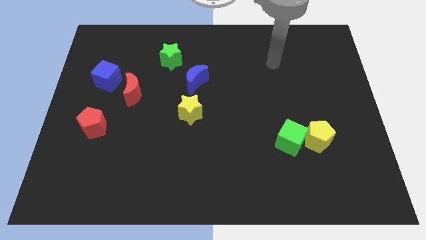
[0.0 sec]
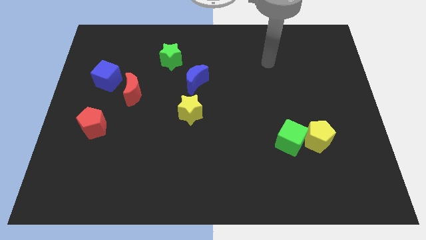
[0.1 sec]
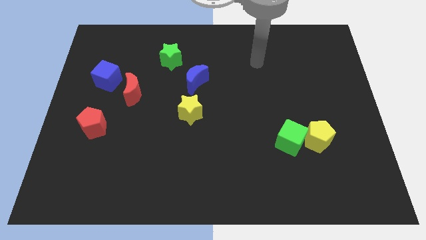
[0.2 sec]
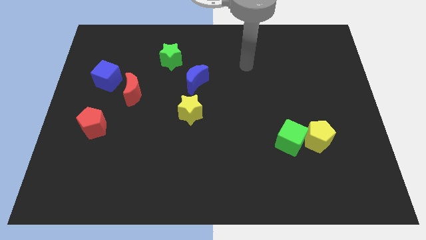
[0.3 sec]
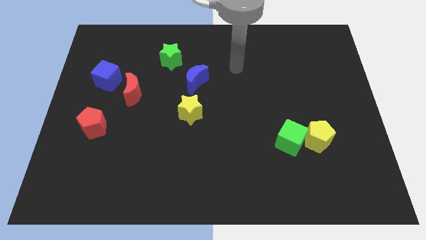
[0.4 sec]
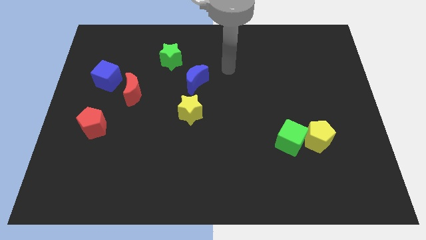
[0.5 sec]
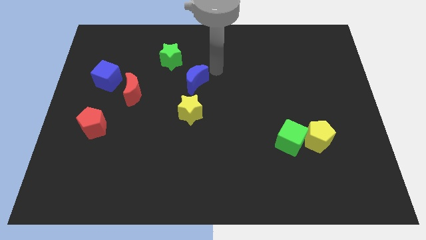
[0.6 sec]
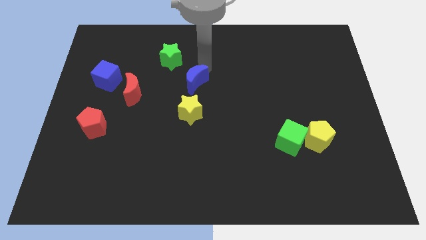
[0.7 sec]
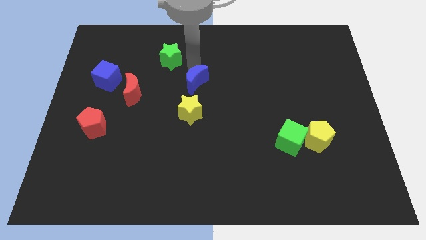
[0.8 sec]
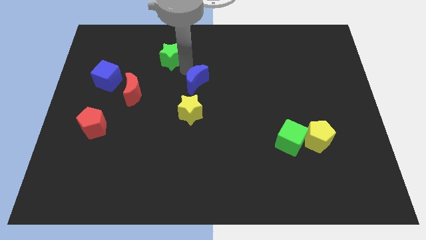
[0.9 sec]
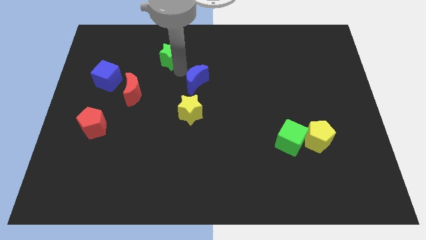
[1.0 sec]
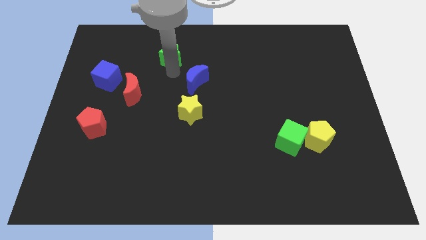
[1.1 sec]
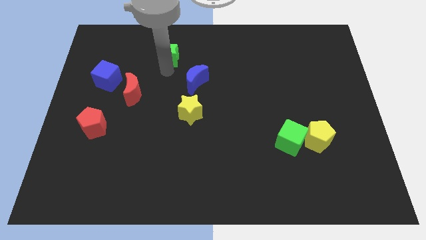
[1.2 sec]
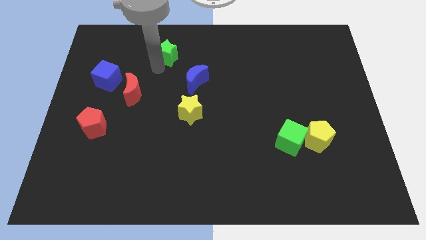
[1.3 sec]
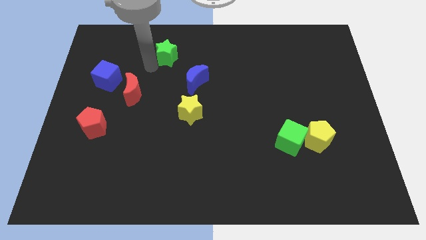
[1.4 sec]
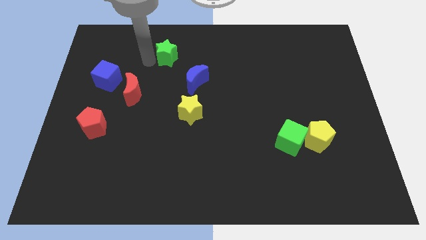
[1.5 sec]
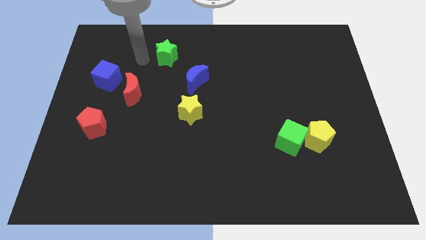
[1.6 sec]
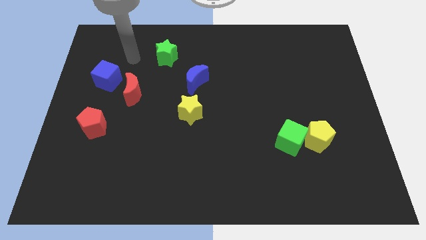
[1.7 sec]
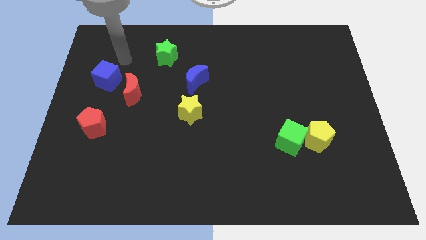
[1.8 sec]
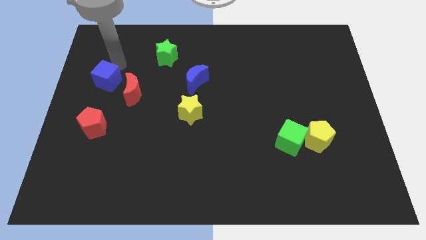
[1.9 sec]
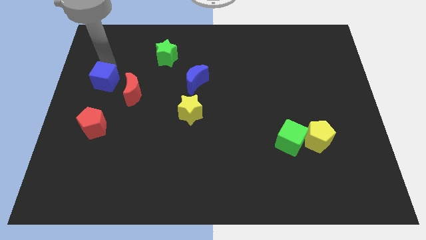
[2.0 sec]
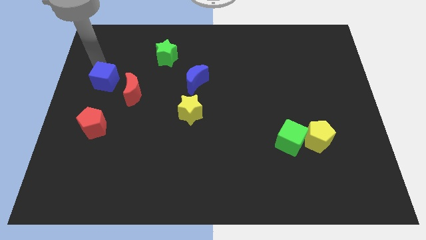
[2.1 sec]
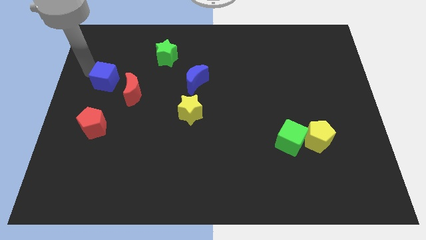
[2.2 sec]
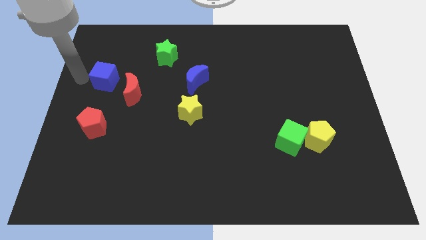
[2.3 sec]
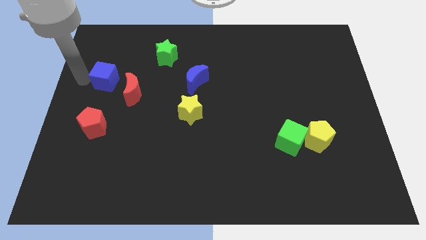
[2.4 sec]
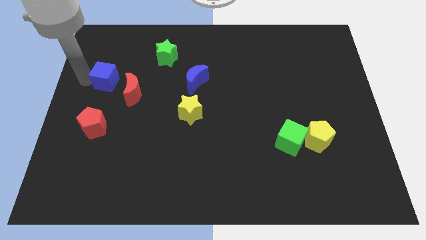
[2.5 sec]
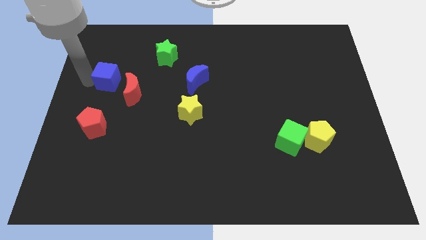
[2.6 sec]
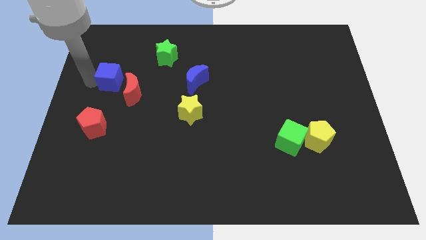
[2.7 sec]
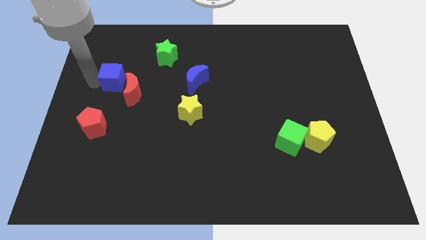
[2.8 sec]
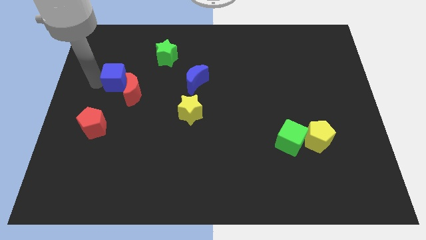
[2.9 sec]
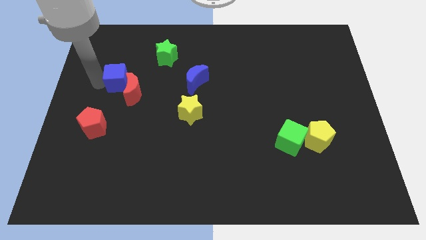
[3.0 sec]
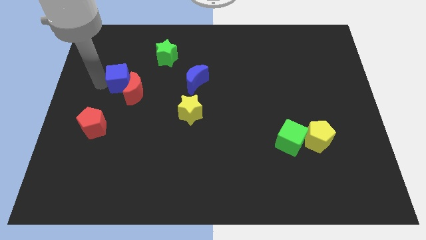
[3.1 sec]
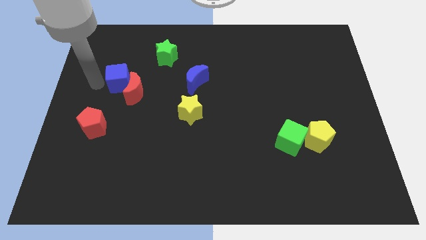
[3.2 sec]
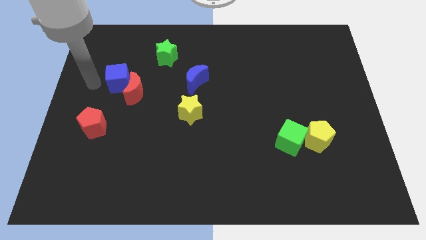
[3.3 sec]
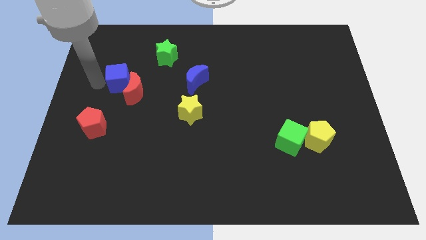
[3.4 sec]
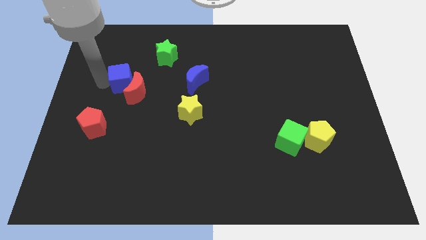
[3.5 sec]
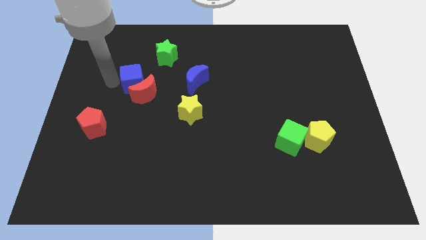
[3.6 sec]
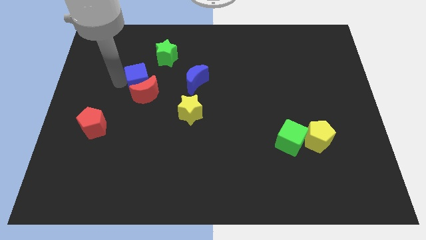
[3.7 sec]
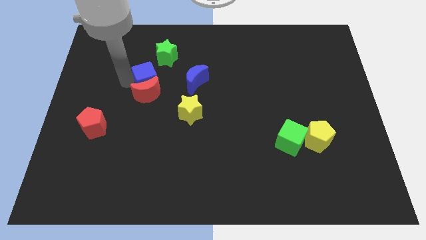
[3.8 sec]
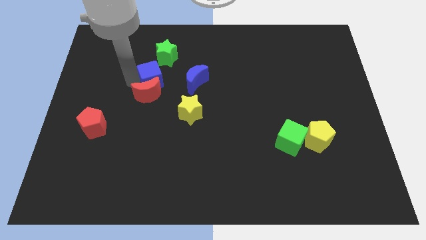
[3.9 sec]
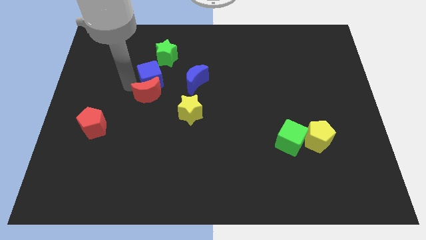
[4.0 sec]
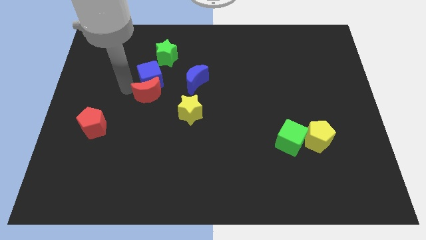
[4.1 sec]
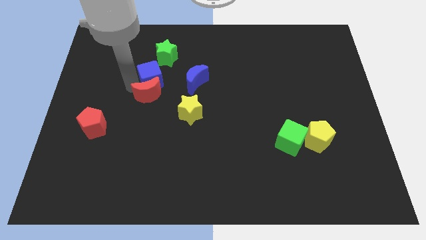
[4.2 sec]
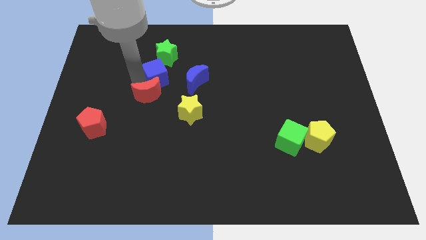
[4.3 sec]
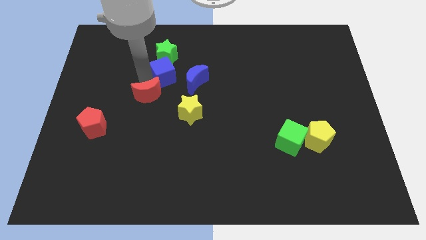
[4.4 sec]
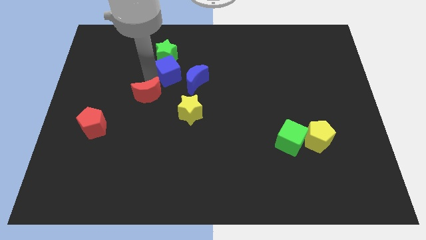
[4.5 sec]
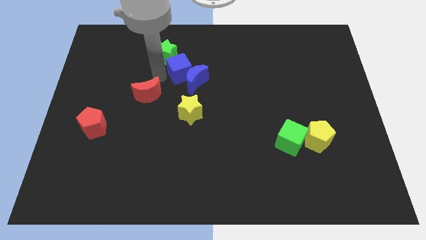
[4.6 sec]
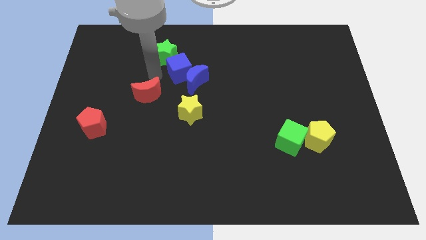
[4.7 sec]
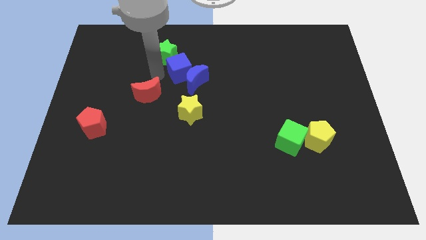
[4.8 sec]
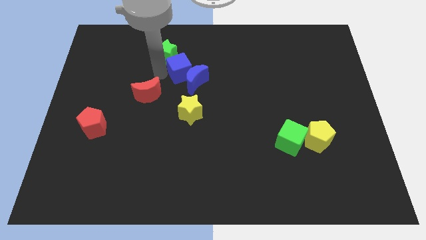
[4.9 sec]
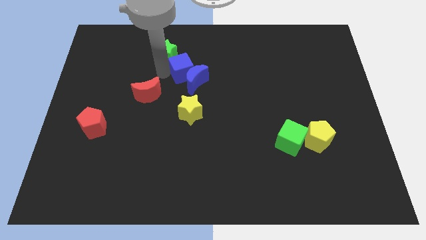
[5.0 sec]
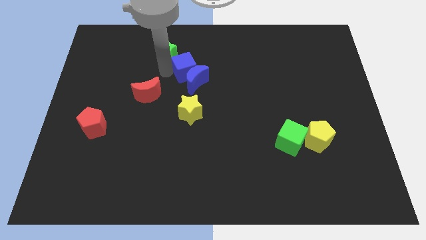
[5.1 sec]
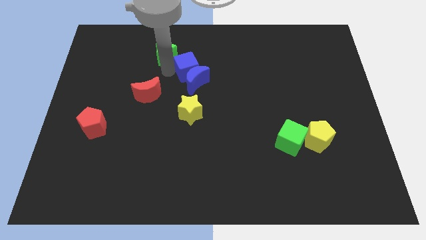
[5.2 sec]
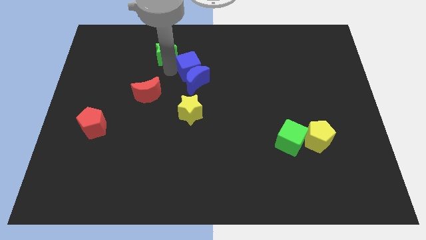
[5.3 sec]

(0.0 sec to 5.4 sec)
move the blue cube diagonally up and to the right of the blue moon

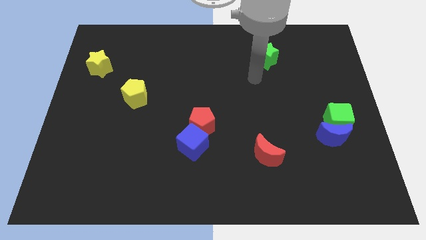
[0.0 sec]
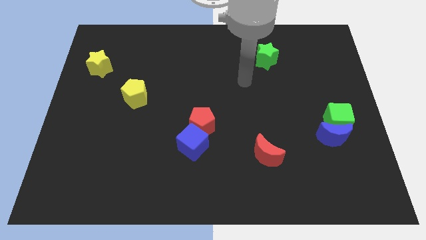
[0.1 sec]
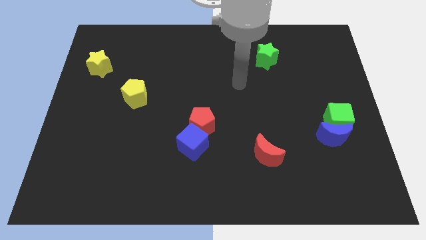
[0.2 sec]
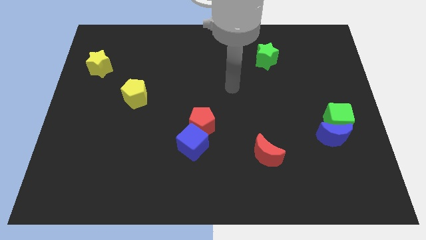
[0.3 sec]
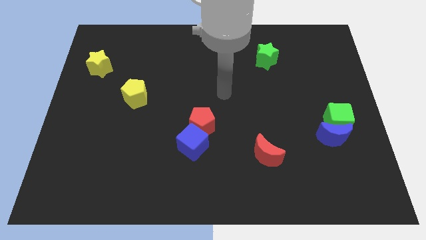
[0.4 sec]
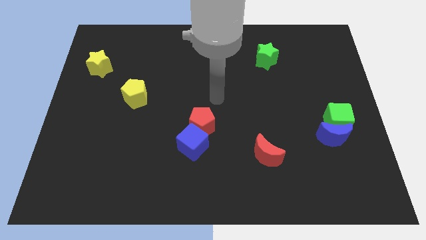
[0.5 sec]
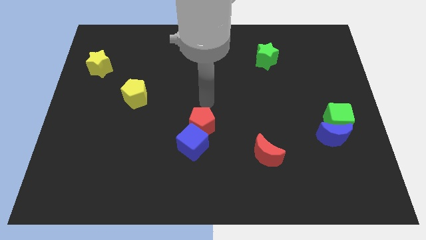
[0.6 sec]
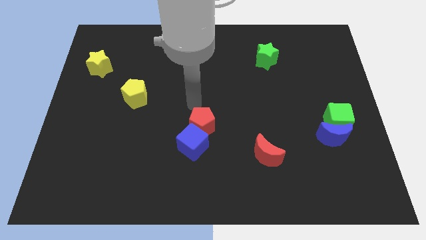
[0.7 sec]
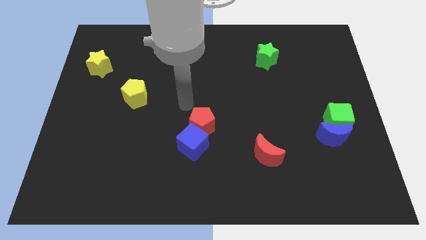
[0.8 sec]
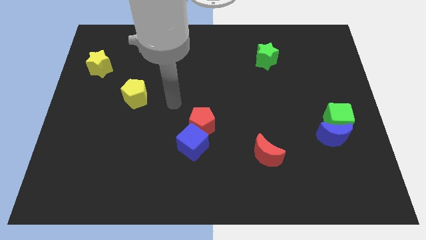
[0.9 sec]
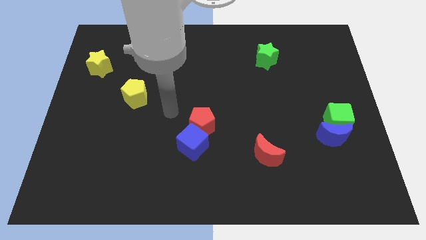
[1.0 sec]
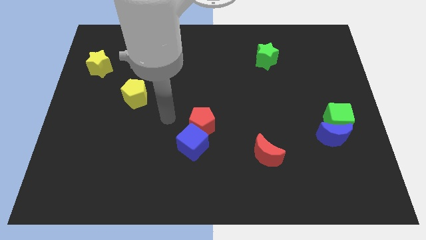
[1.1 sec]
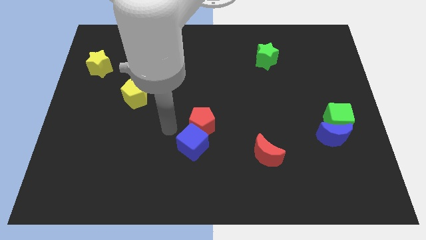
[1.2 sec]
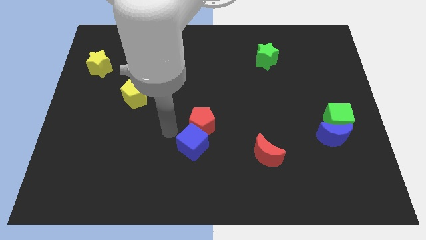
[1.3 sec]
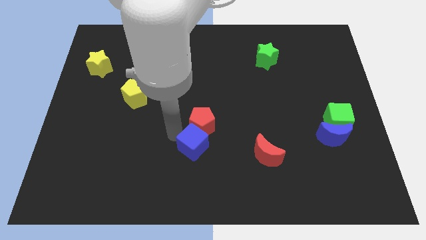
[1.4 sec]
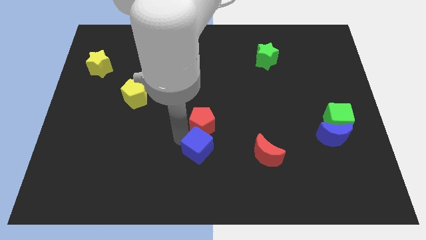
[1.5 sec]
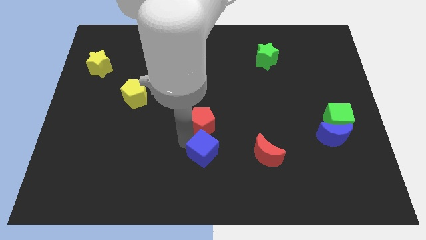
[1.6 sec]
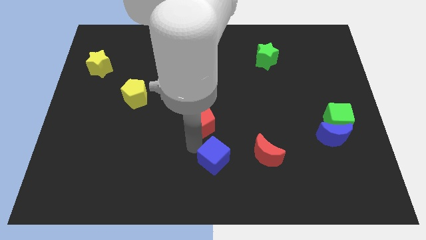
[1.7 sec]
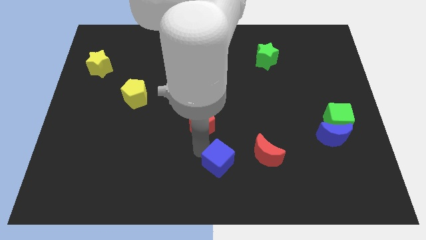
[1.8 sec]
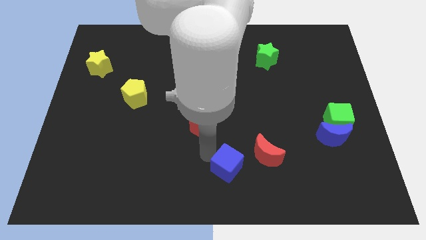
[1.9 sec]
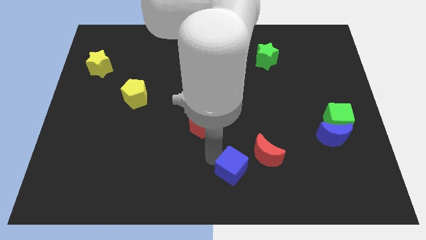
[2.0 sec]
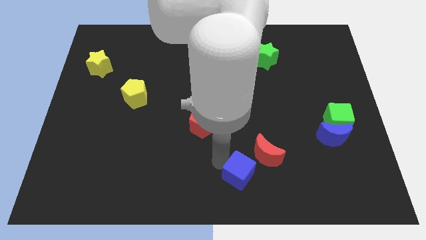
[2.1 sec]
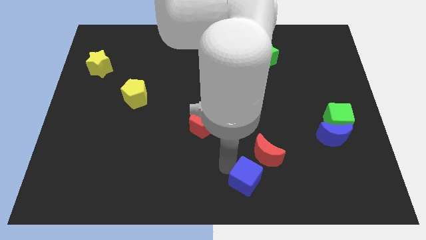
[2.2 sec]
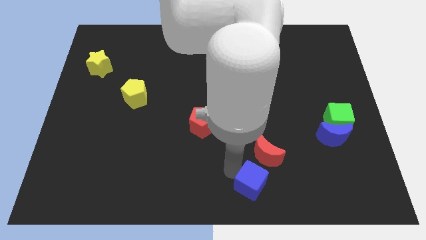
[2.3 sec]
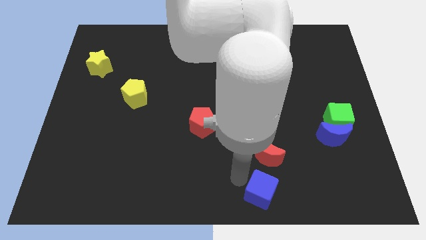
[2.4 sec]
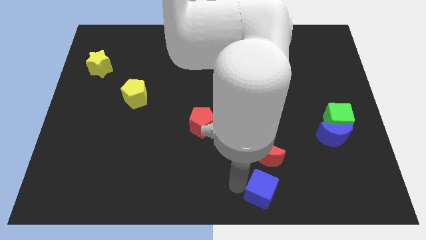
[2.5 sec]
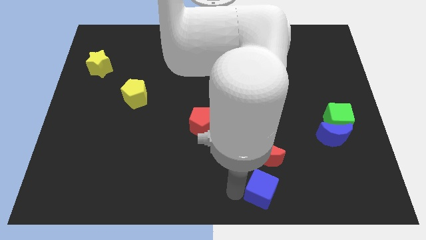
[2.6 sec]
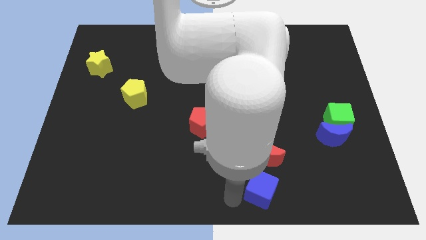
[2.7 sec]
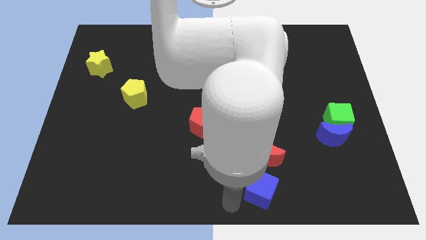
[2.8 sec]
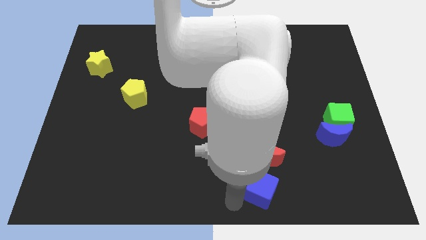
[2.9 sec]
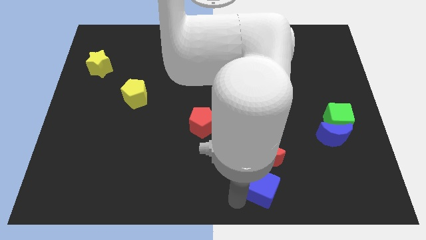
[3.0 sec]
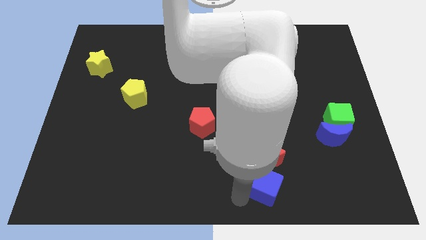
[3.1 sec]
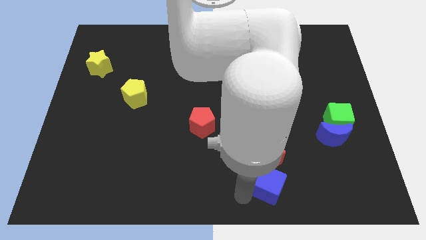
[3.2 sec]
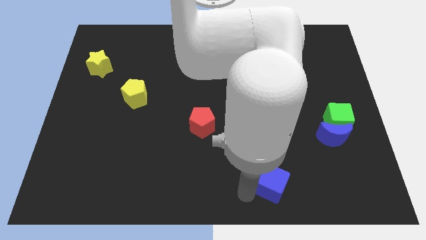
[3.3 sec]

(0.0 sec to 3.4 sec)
put the blue cube diagonally down and to the right of the red moon
